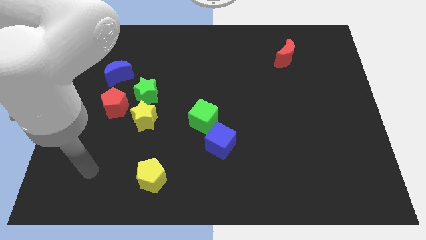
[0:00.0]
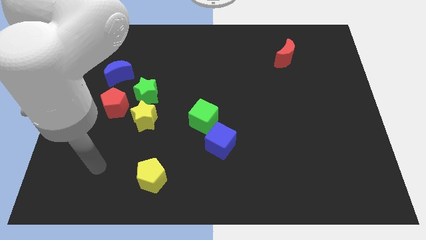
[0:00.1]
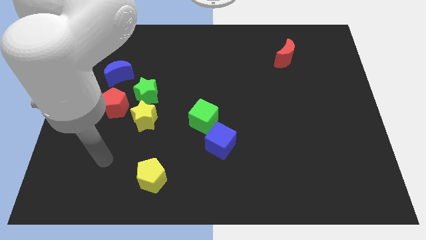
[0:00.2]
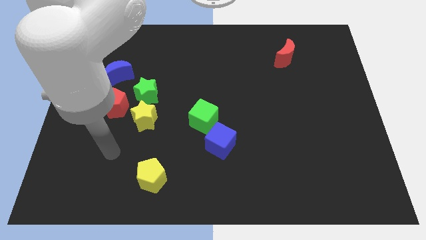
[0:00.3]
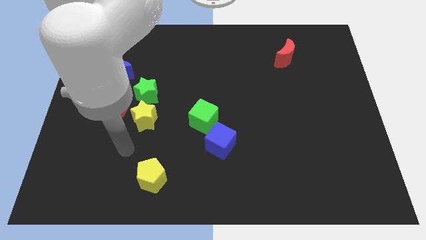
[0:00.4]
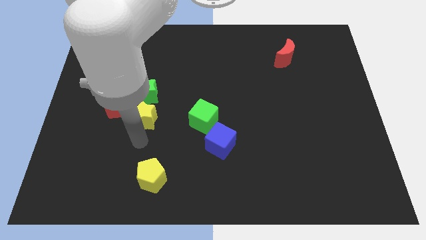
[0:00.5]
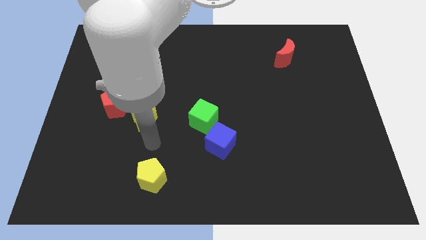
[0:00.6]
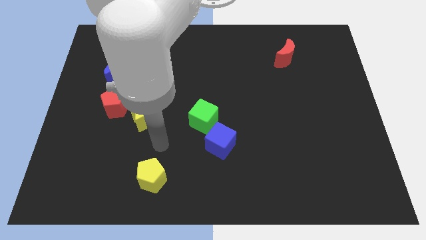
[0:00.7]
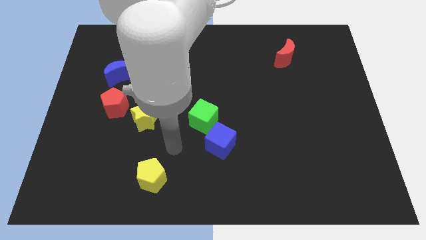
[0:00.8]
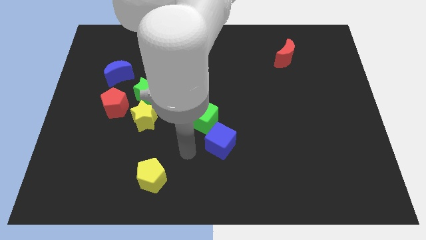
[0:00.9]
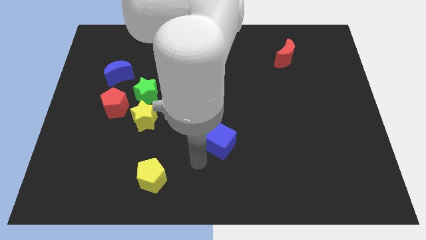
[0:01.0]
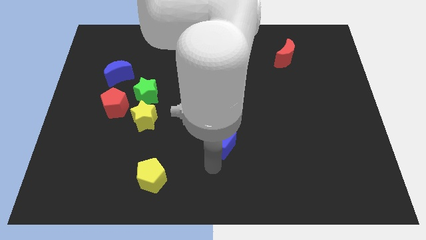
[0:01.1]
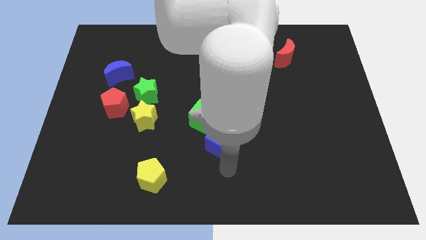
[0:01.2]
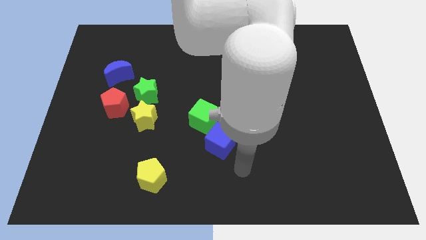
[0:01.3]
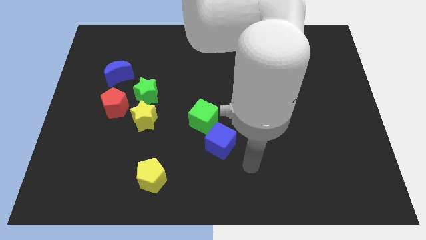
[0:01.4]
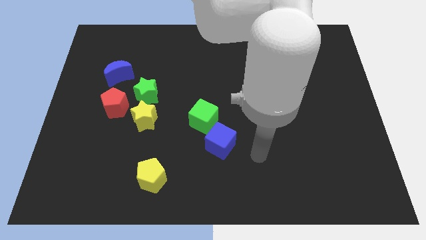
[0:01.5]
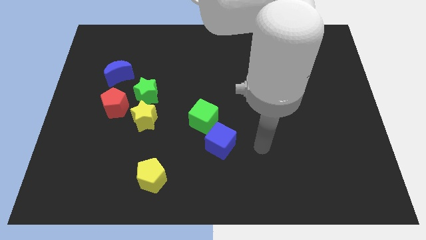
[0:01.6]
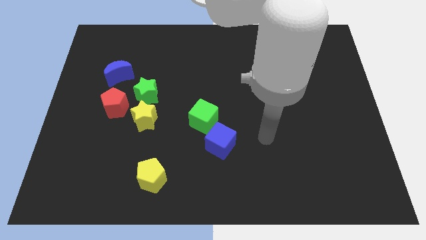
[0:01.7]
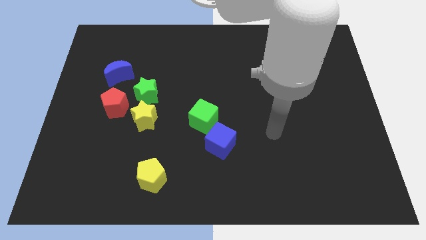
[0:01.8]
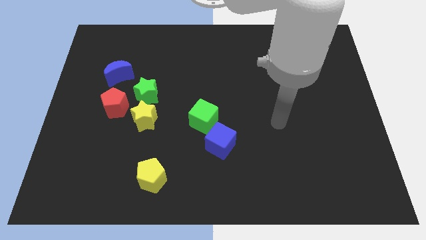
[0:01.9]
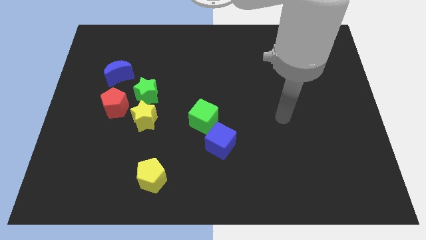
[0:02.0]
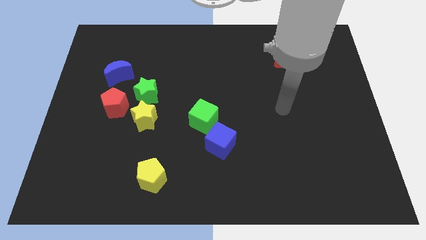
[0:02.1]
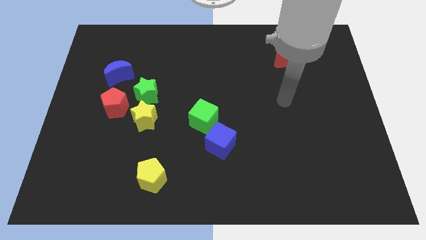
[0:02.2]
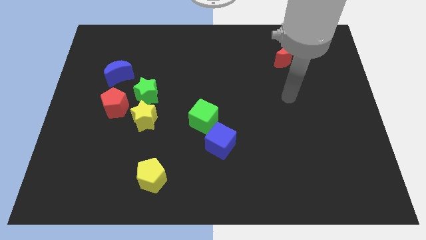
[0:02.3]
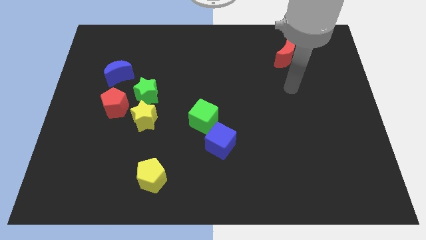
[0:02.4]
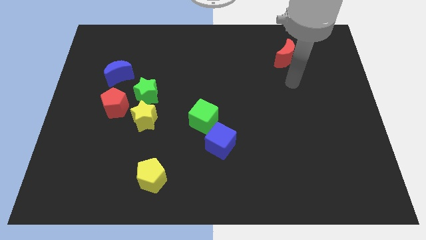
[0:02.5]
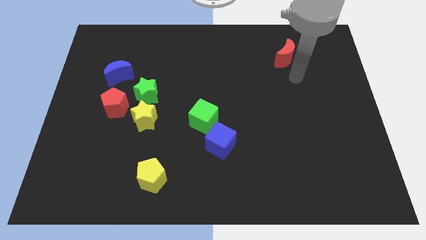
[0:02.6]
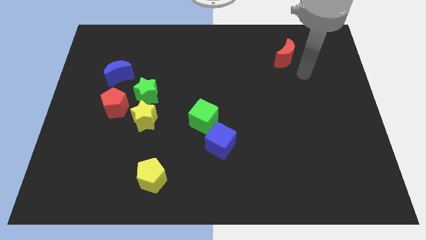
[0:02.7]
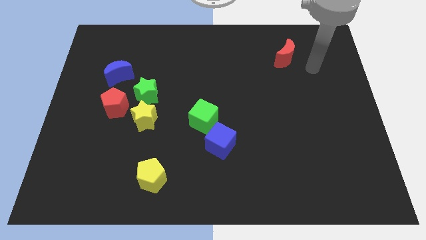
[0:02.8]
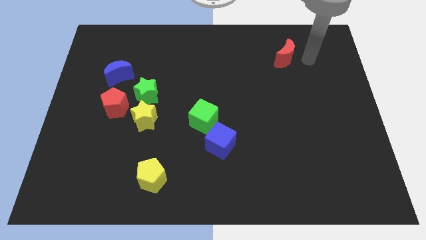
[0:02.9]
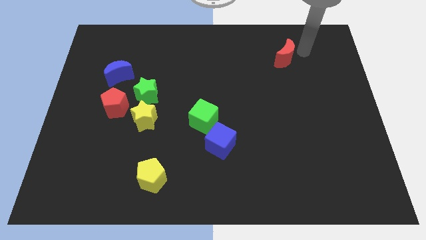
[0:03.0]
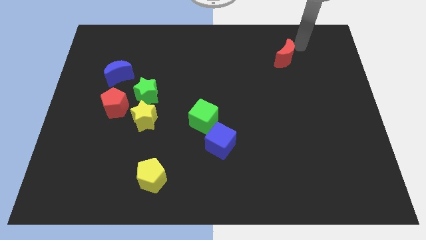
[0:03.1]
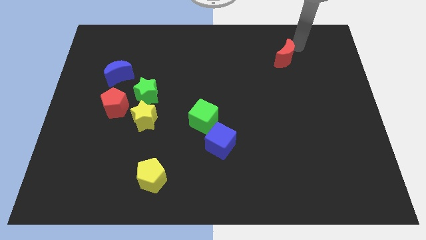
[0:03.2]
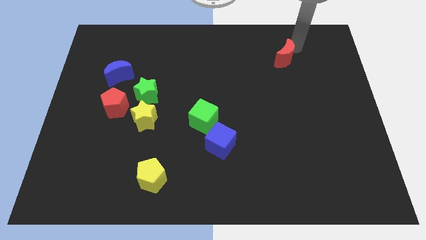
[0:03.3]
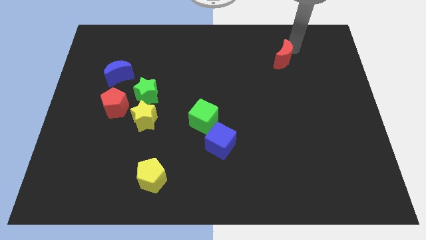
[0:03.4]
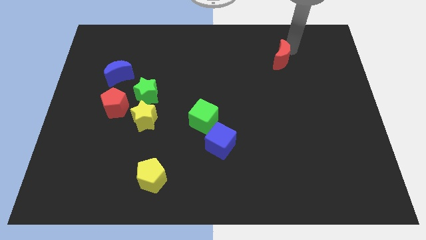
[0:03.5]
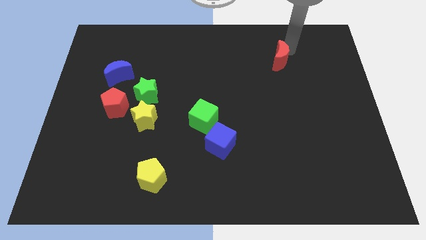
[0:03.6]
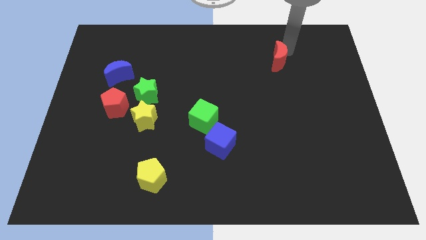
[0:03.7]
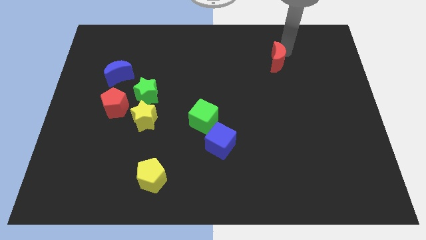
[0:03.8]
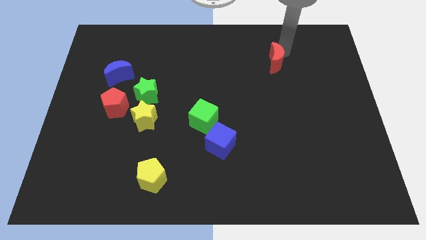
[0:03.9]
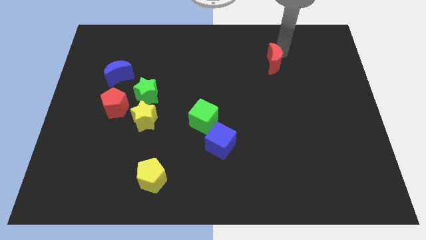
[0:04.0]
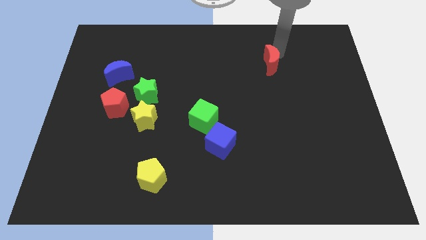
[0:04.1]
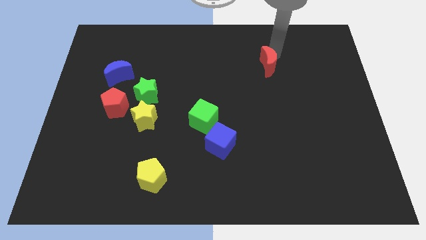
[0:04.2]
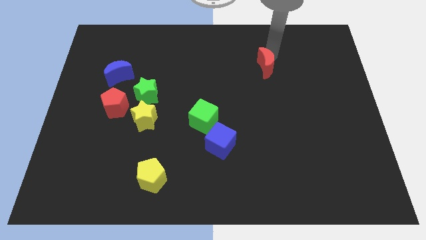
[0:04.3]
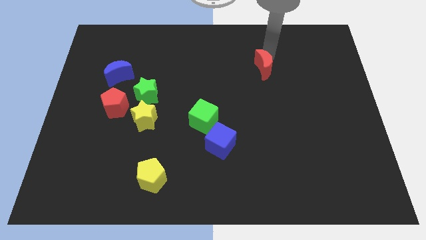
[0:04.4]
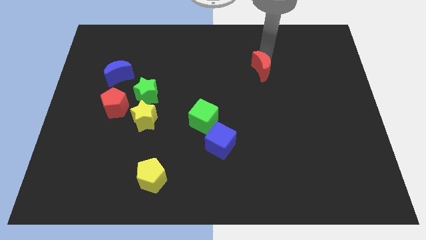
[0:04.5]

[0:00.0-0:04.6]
slightly slide the red moon downwards and left diagonally

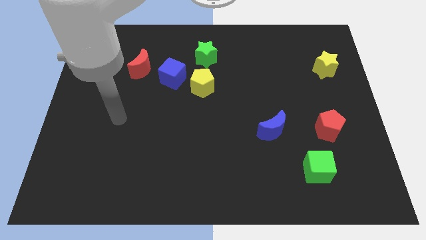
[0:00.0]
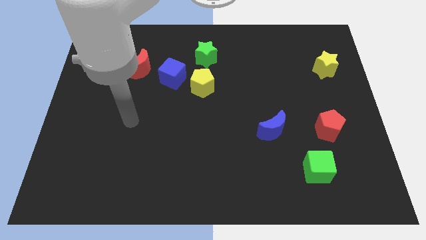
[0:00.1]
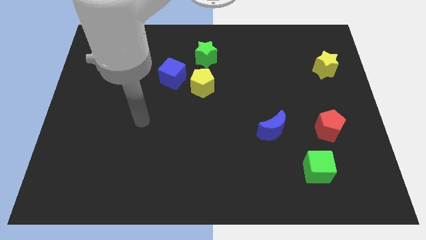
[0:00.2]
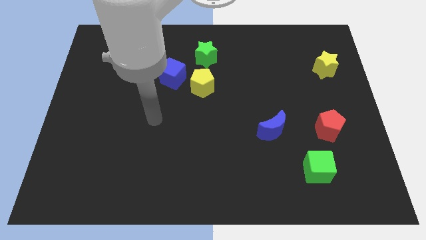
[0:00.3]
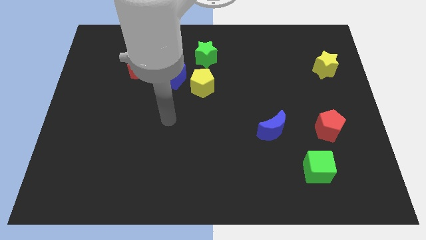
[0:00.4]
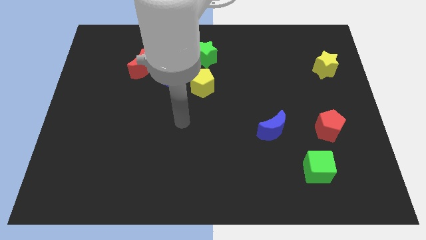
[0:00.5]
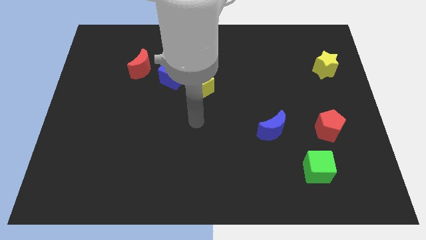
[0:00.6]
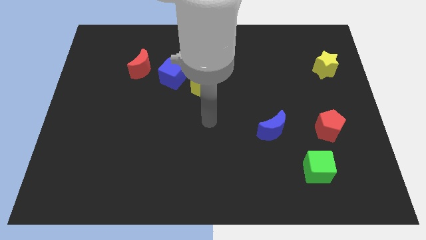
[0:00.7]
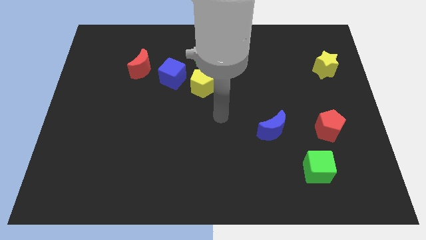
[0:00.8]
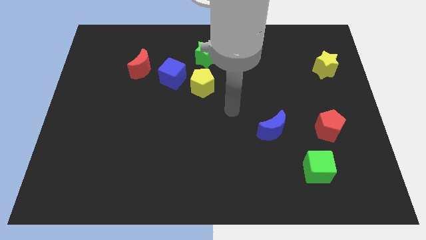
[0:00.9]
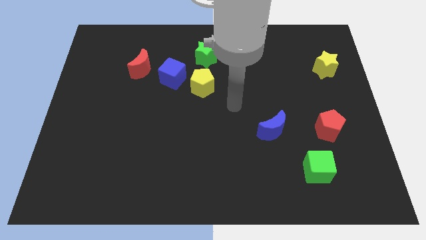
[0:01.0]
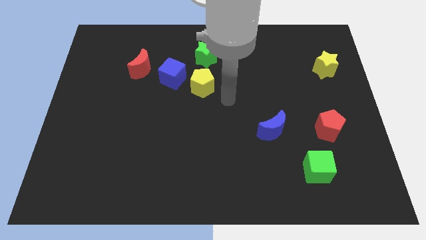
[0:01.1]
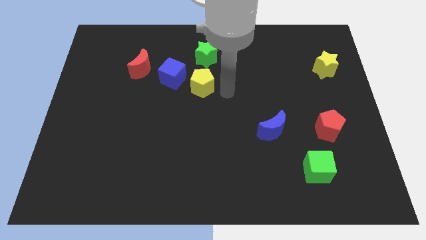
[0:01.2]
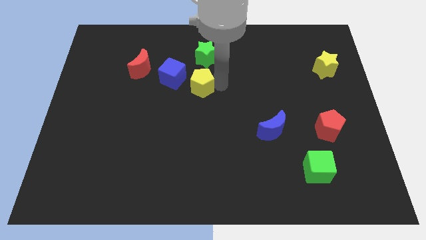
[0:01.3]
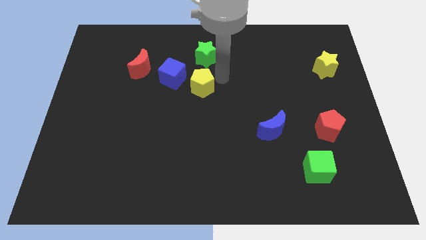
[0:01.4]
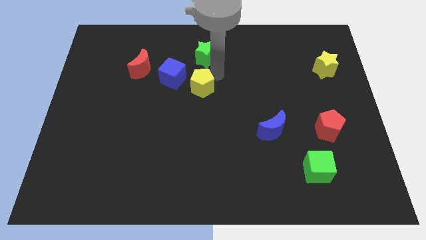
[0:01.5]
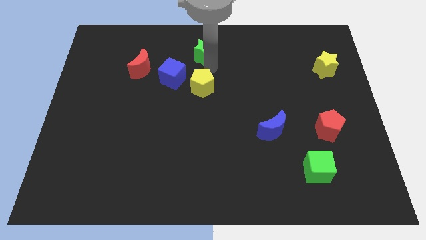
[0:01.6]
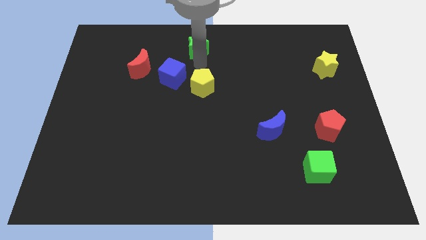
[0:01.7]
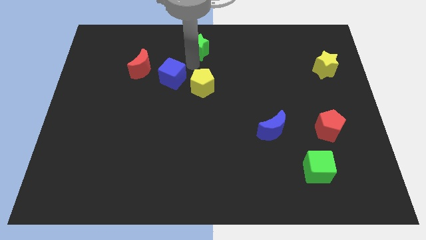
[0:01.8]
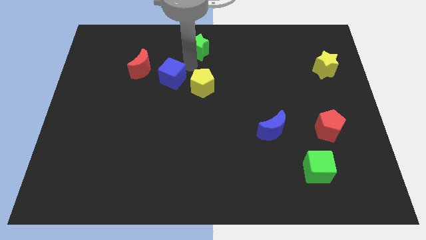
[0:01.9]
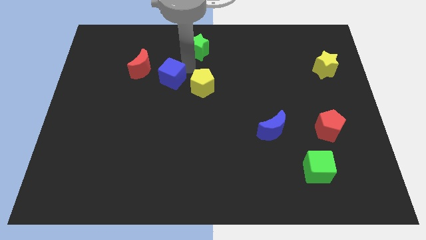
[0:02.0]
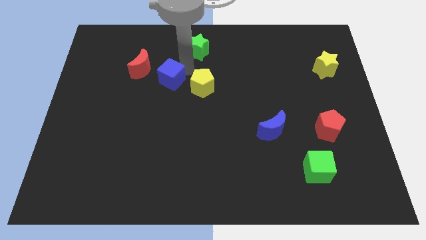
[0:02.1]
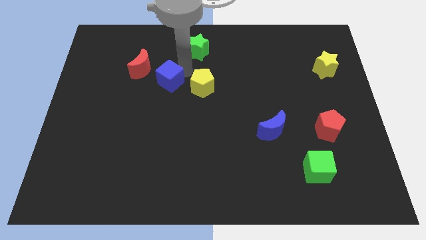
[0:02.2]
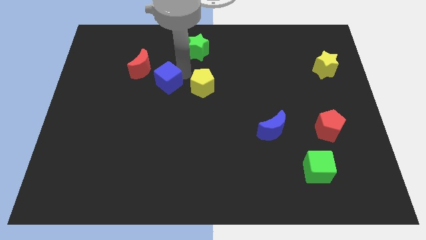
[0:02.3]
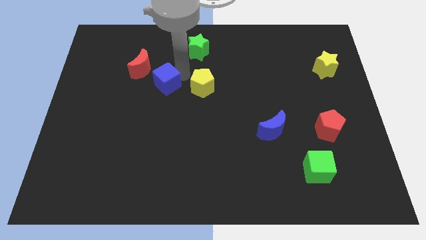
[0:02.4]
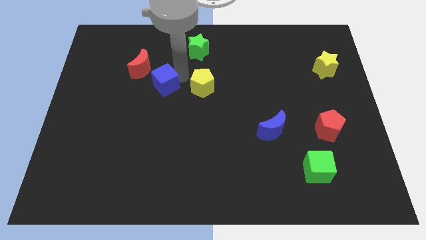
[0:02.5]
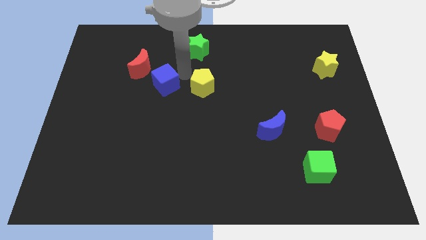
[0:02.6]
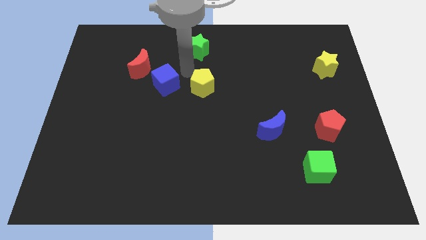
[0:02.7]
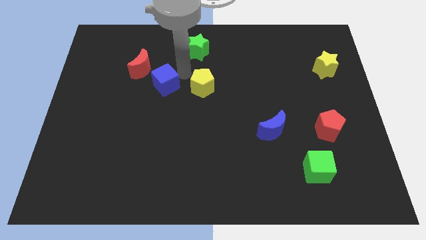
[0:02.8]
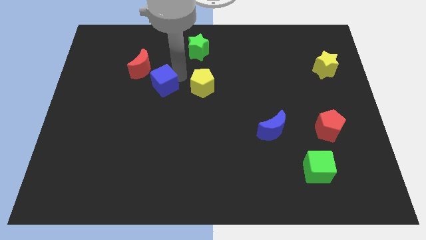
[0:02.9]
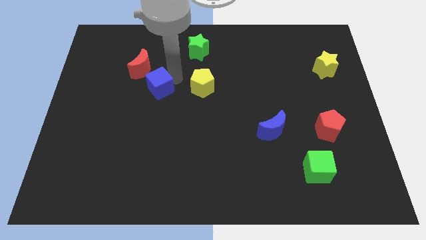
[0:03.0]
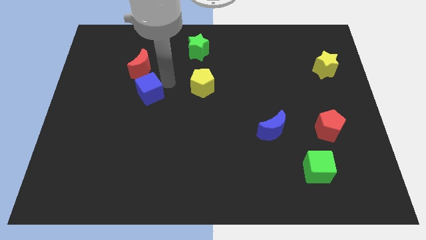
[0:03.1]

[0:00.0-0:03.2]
slide the blue cube diagonally downwards and left somewhat

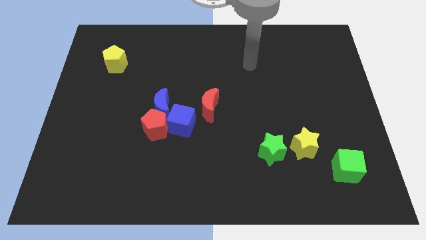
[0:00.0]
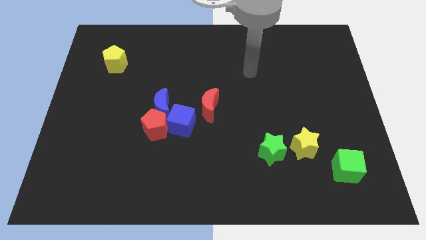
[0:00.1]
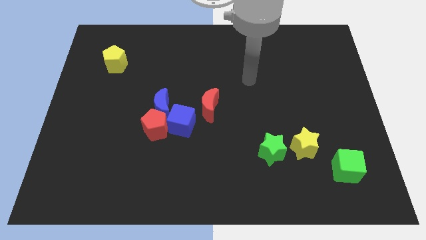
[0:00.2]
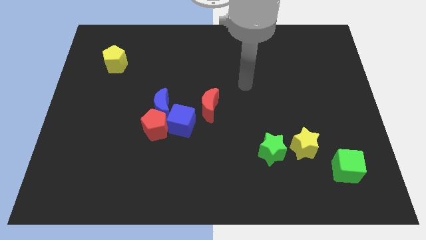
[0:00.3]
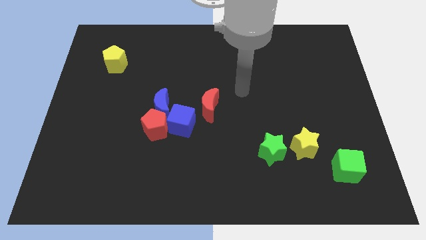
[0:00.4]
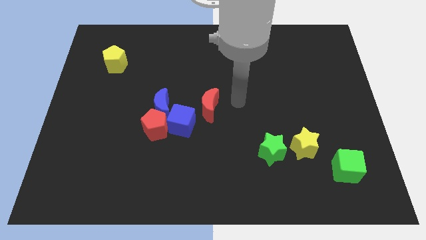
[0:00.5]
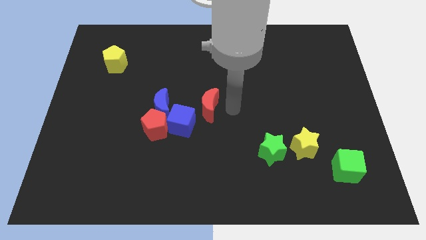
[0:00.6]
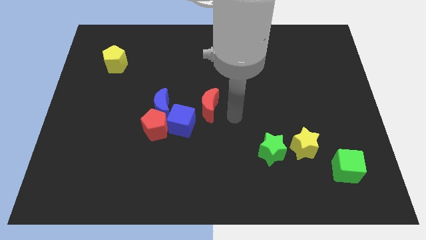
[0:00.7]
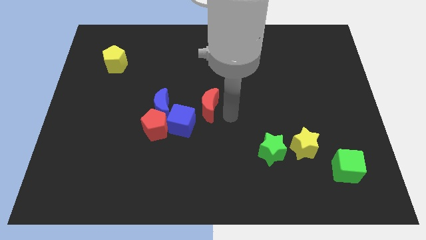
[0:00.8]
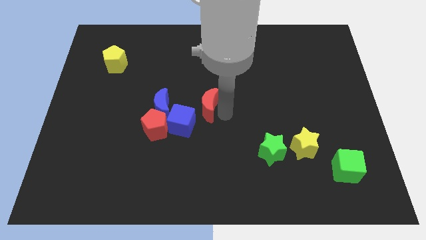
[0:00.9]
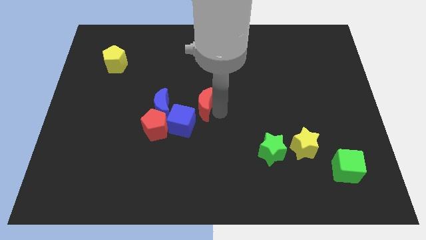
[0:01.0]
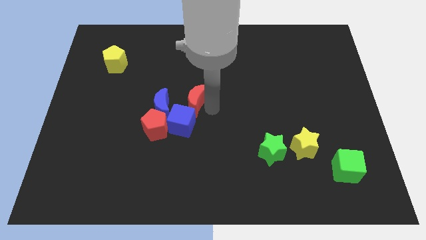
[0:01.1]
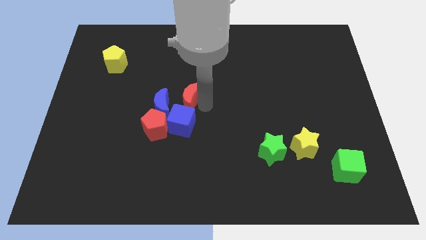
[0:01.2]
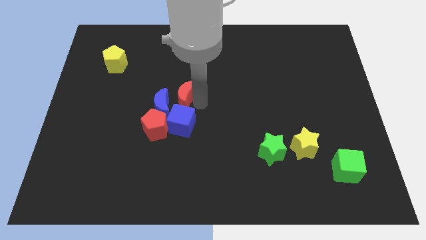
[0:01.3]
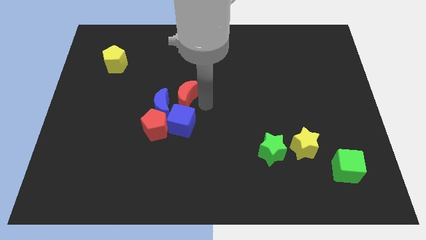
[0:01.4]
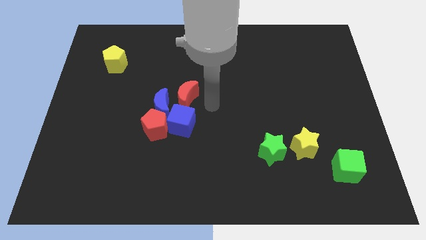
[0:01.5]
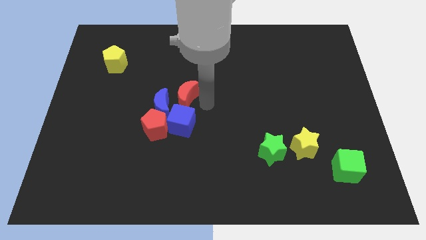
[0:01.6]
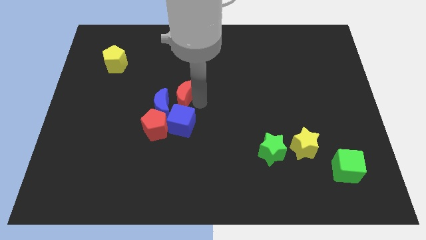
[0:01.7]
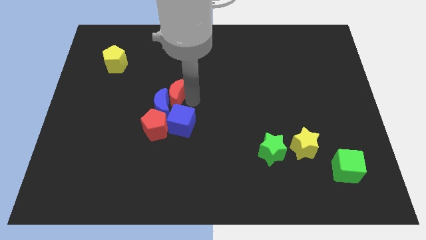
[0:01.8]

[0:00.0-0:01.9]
move the red moon a little bit to the left
